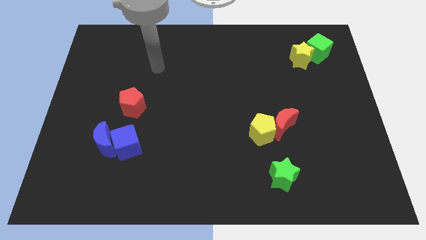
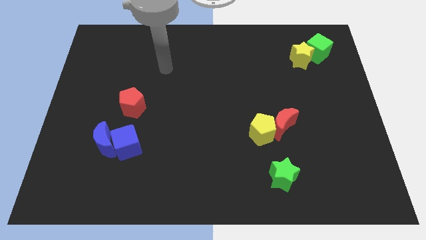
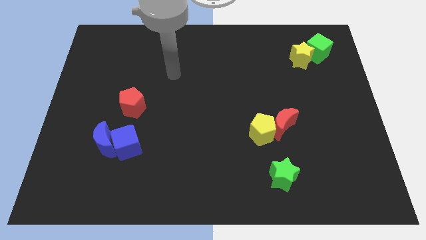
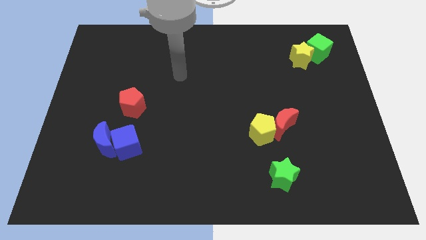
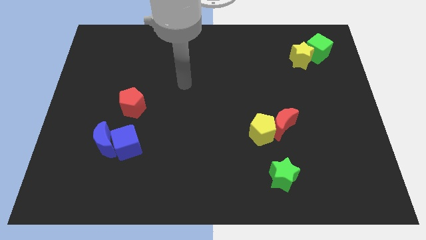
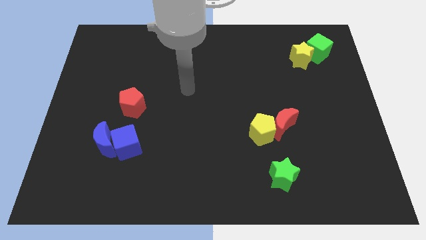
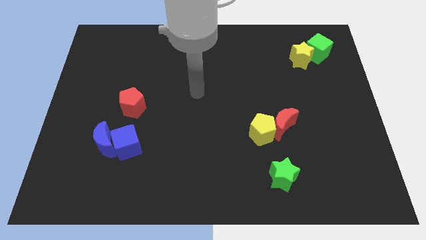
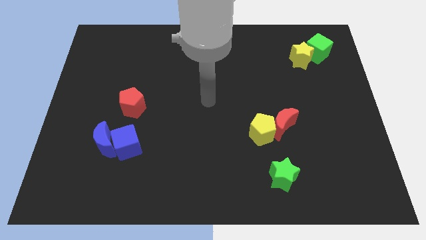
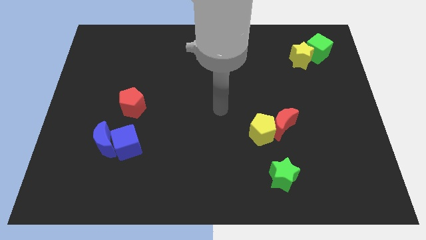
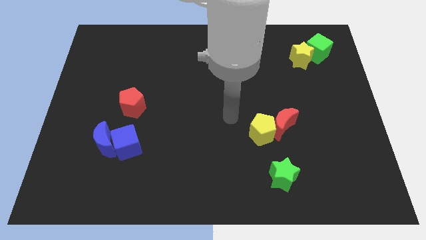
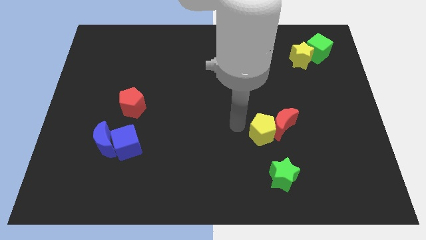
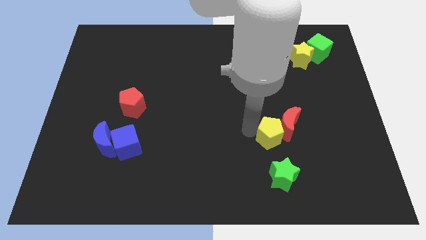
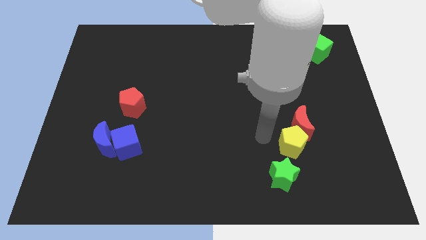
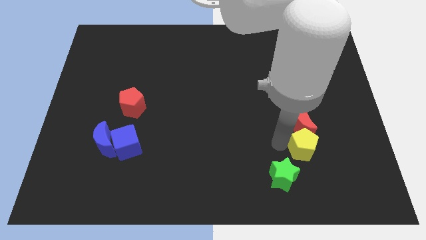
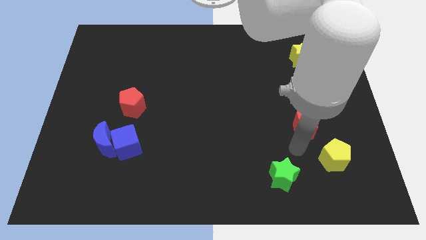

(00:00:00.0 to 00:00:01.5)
separate the red moon from the yellow pentagon

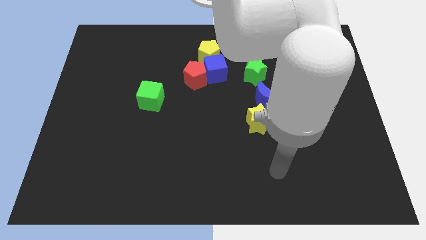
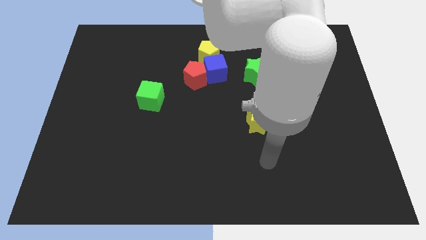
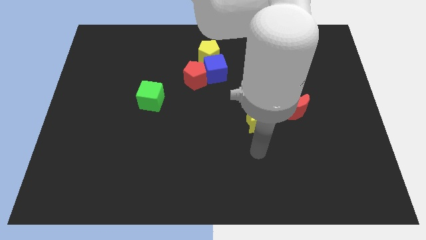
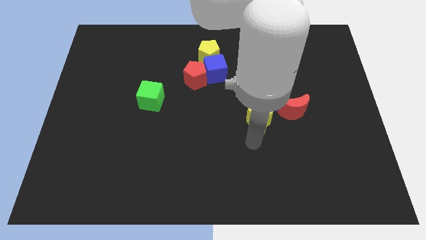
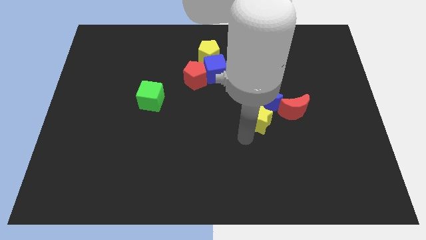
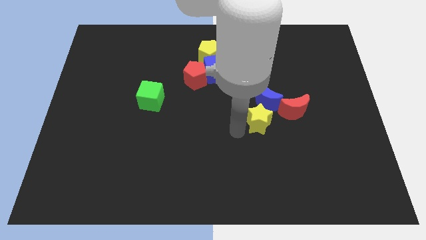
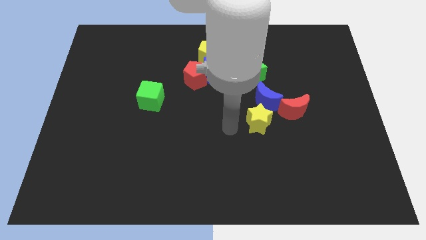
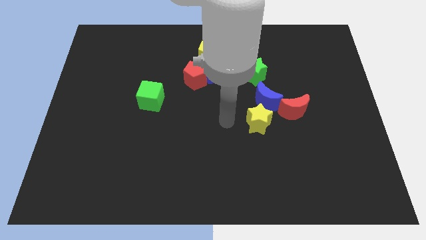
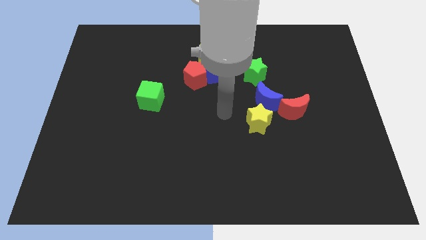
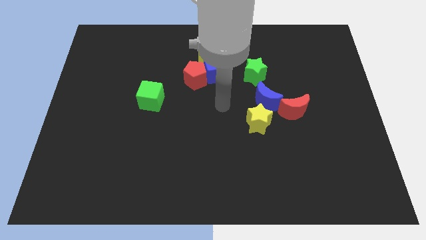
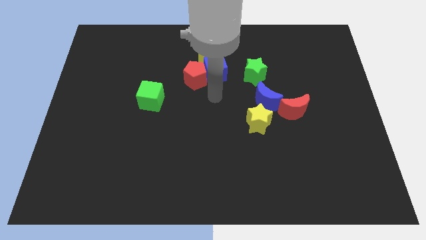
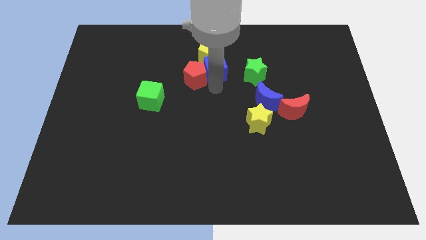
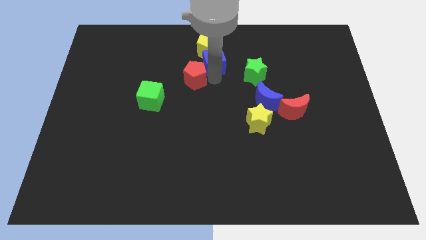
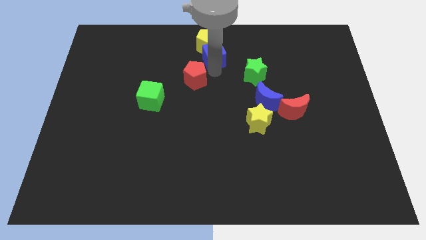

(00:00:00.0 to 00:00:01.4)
move the red pentagon away from the blue cube and yellow pentagon

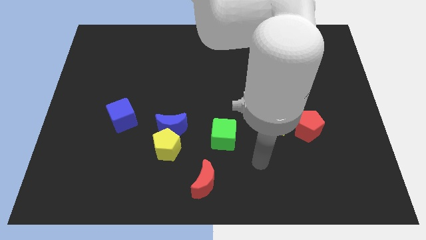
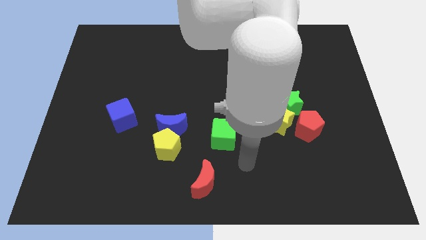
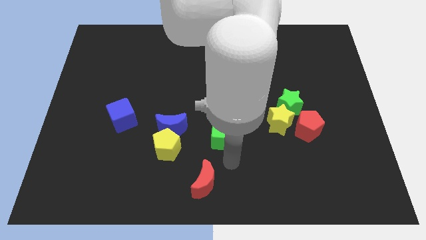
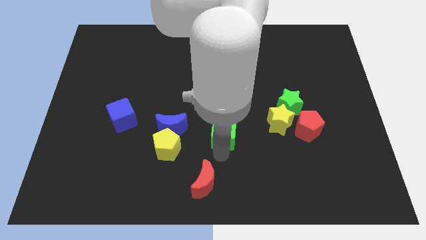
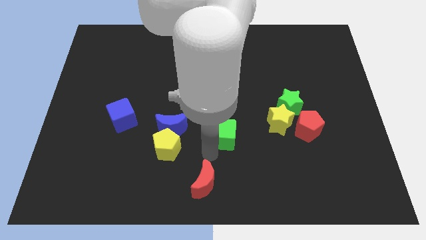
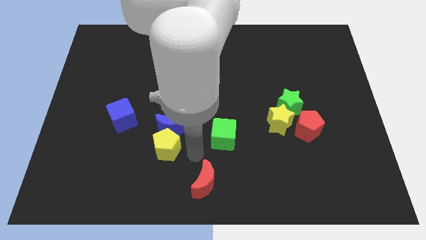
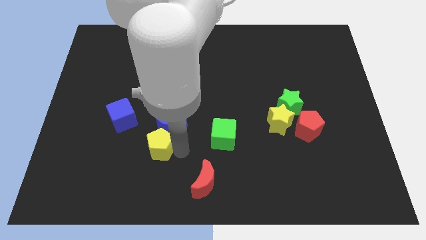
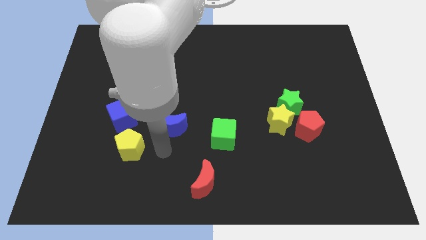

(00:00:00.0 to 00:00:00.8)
move the blue moon away from the yellow pentagon

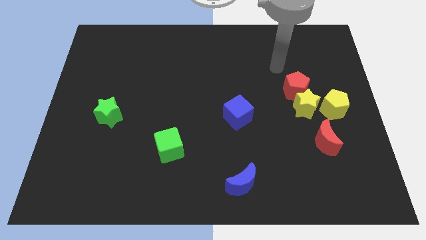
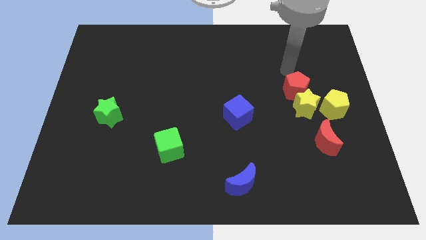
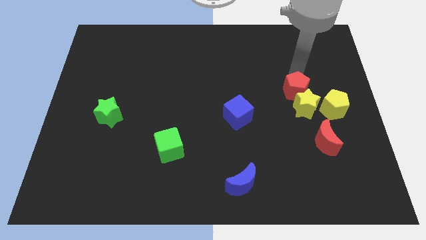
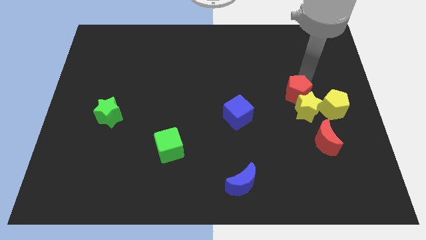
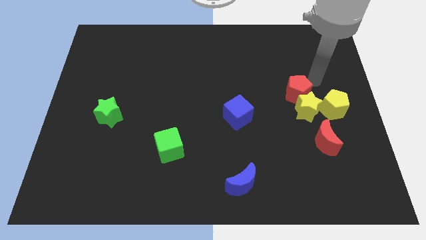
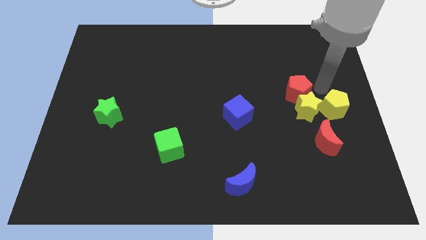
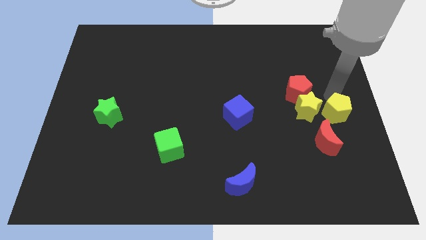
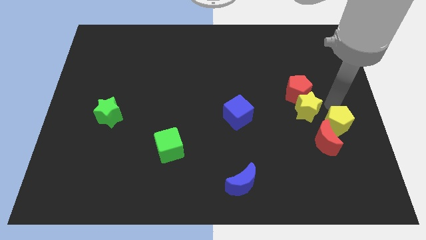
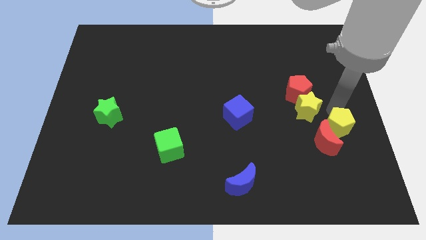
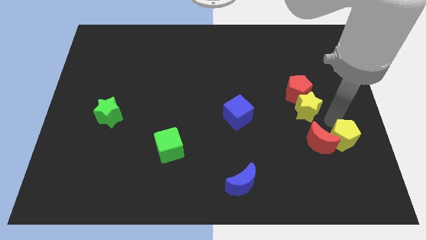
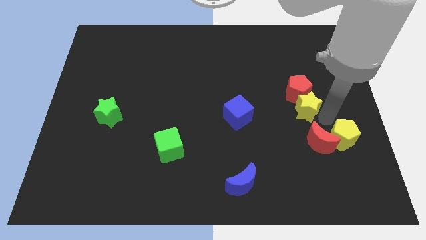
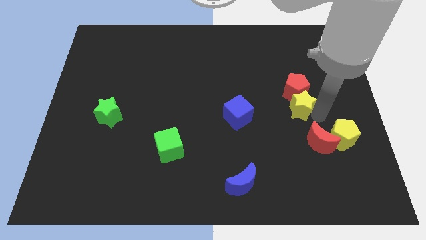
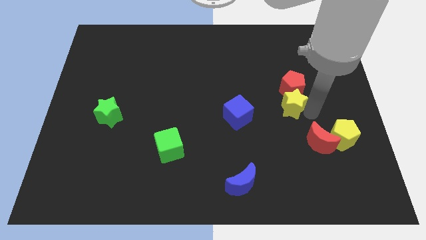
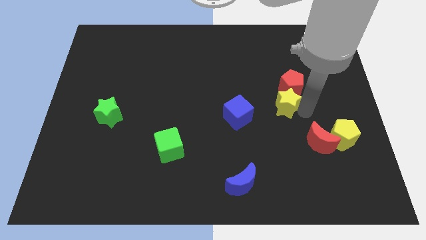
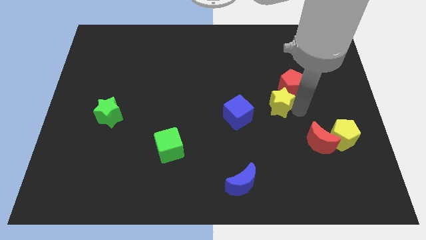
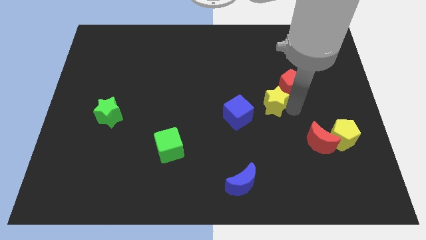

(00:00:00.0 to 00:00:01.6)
pull the yellow star apart from the group of blocks

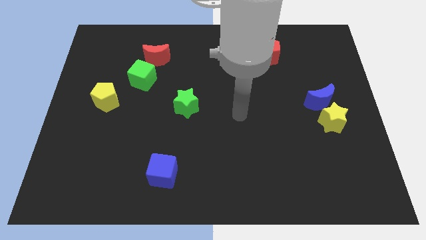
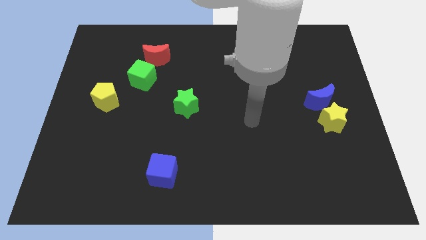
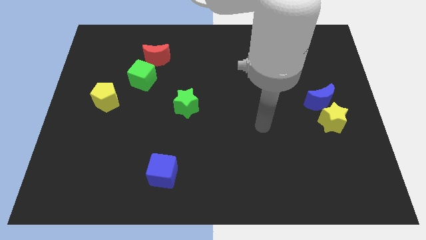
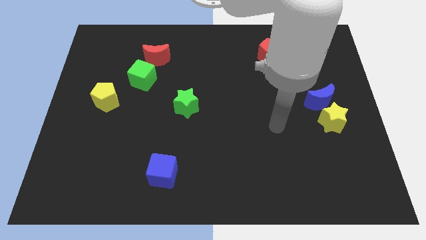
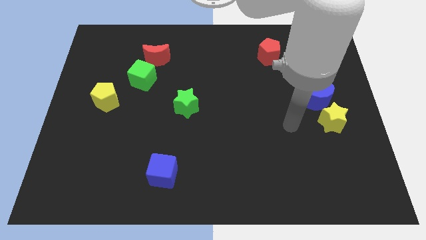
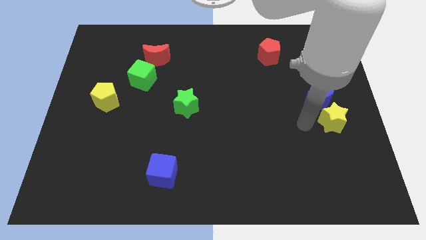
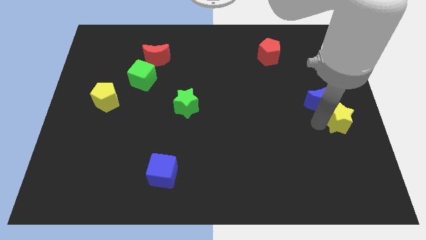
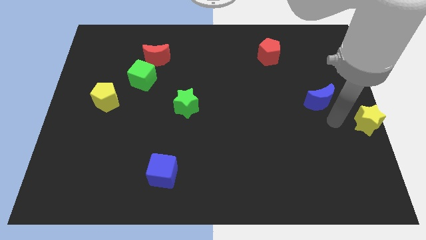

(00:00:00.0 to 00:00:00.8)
separate the blue moon from the yellow star

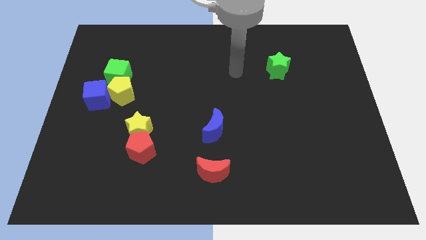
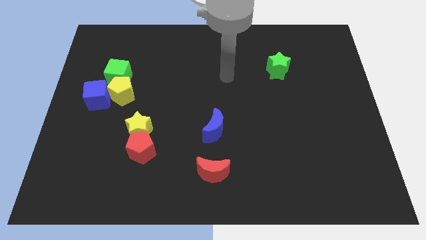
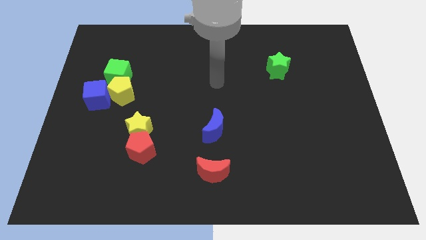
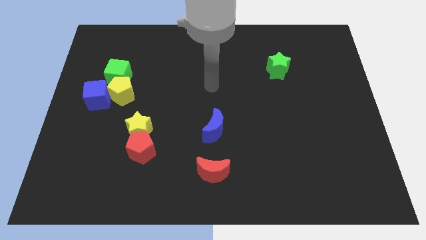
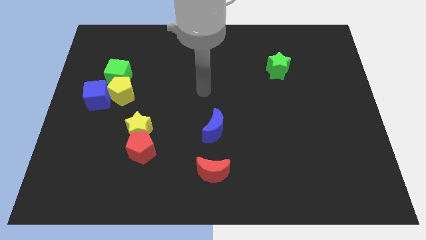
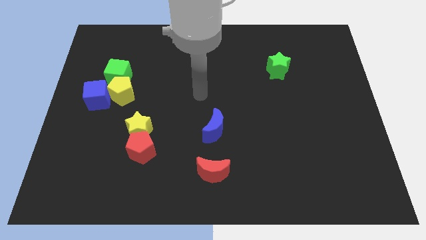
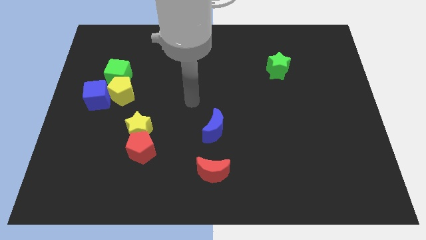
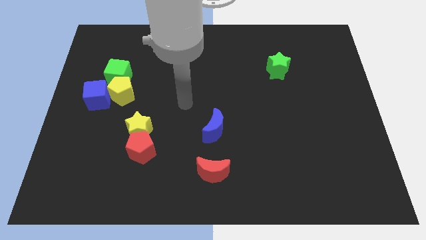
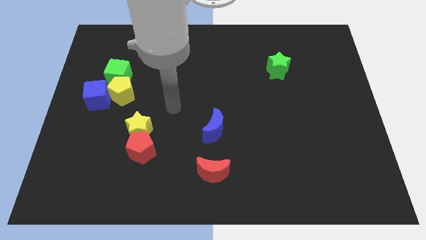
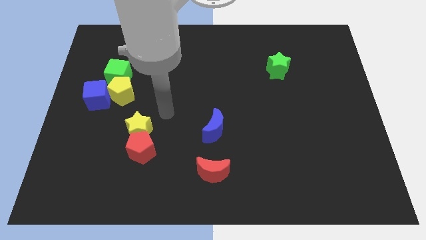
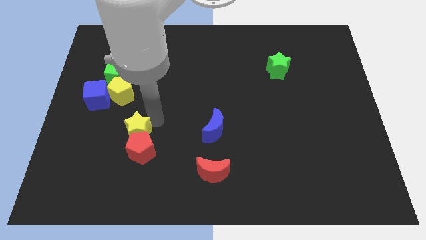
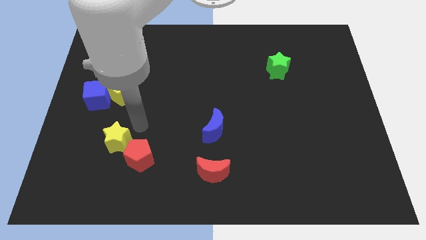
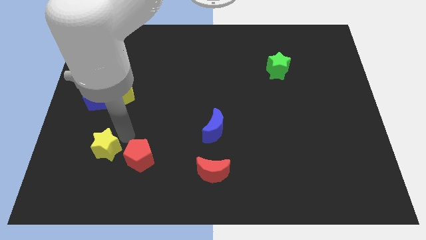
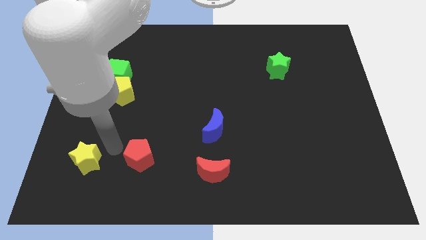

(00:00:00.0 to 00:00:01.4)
separate the red pentagon from the yellow star

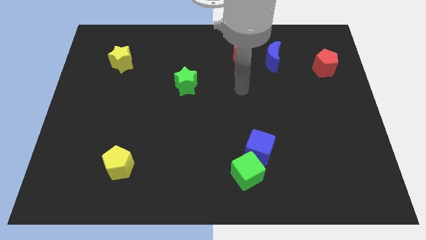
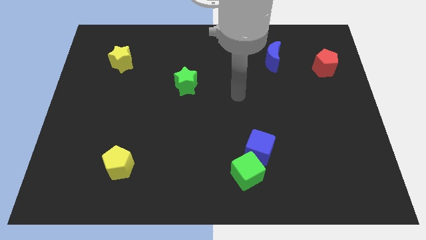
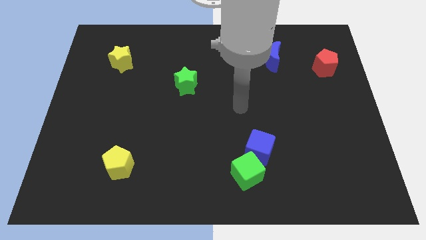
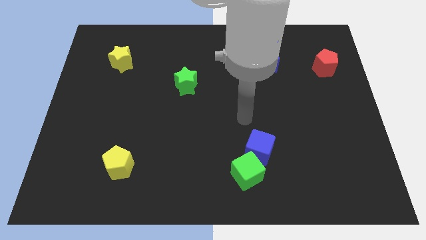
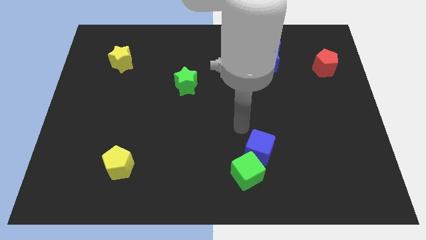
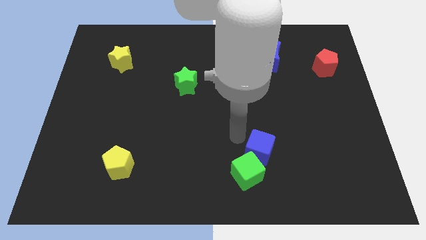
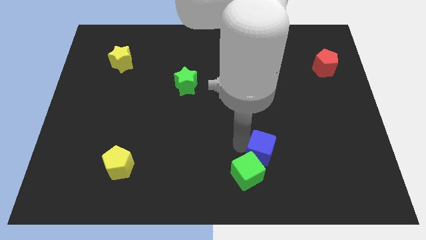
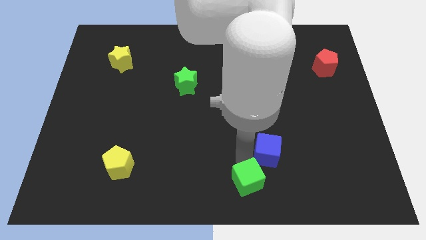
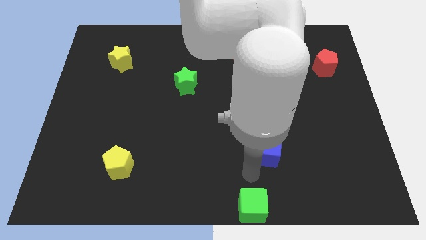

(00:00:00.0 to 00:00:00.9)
separate the blue cube from the green cube

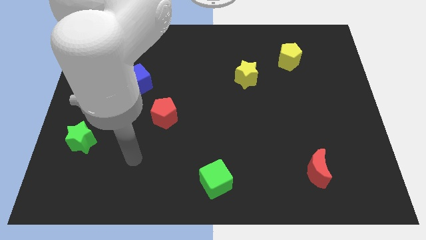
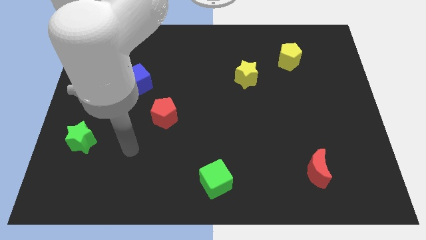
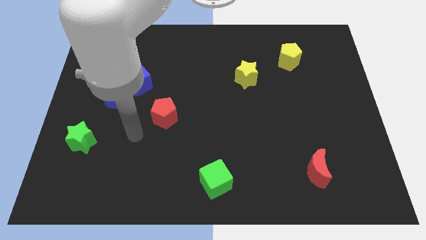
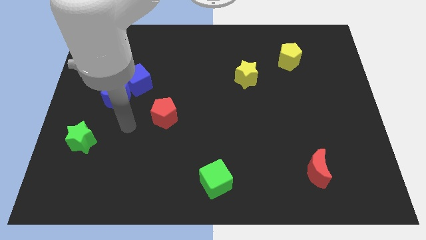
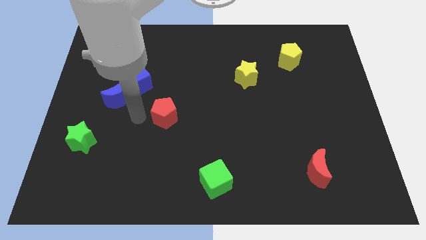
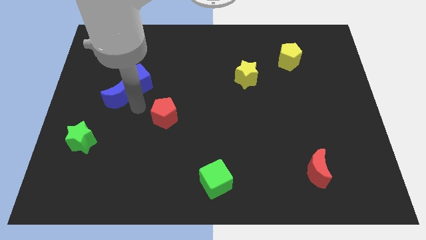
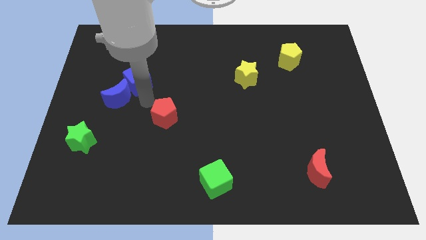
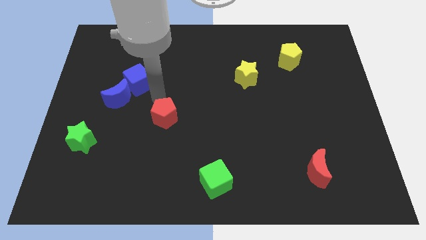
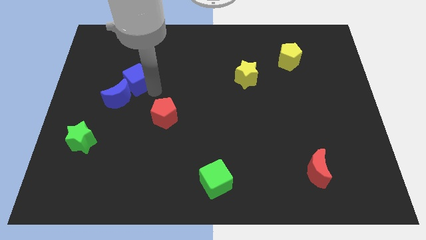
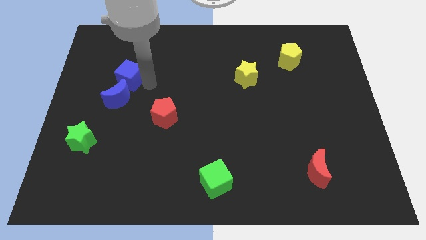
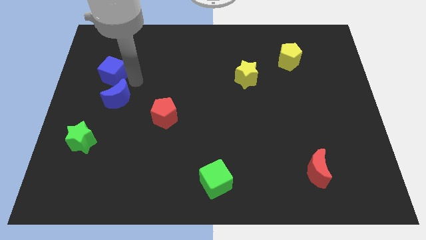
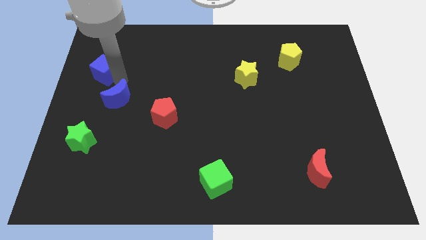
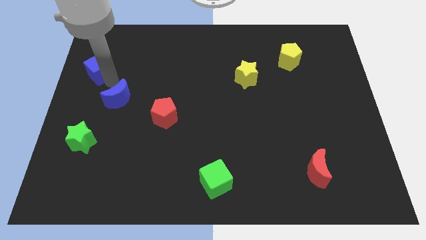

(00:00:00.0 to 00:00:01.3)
separate the blue moon from the blue cube
